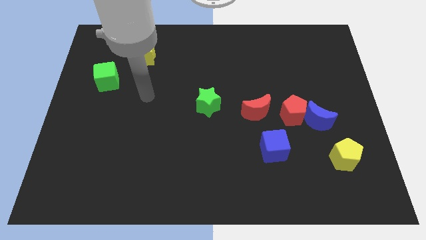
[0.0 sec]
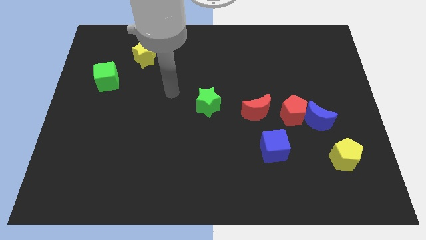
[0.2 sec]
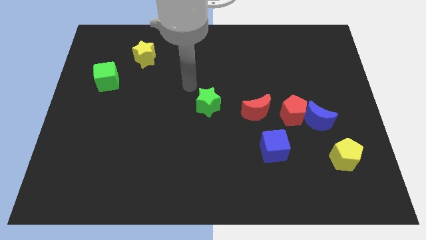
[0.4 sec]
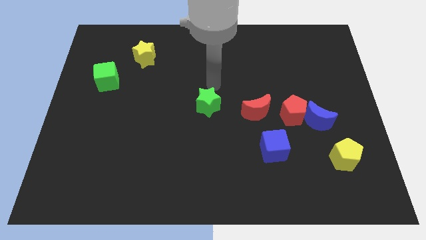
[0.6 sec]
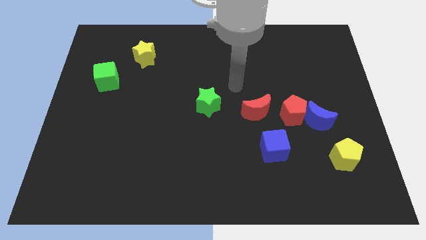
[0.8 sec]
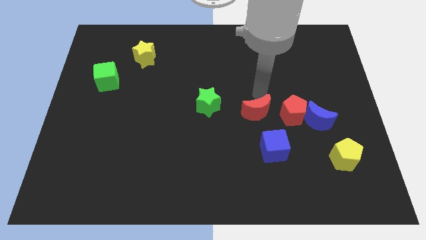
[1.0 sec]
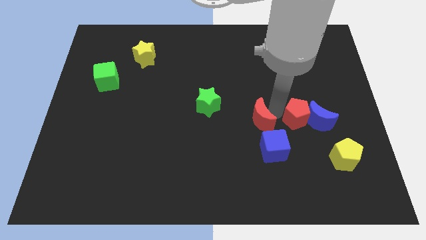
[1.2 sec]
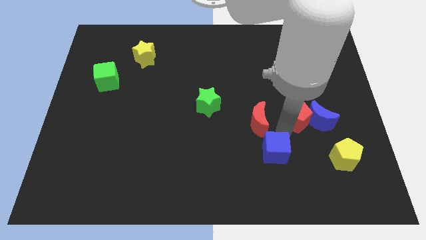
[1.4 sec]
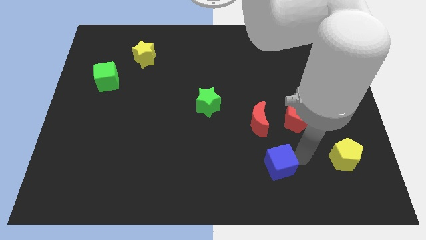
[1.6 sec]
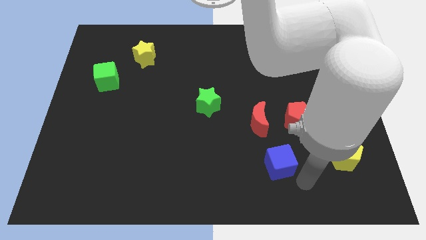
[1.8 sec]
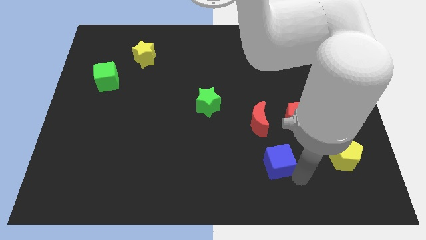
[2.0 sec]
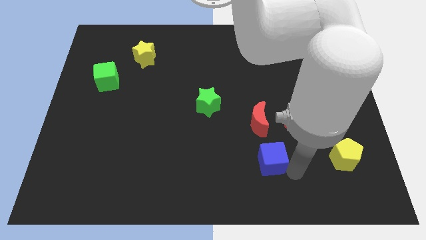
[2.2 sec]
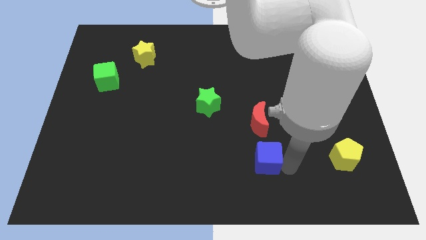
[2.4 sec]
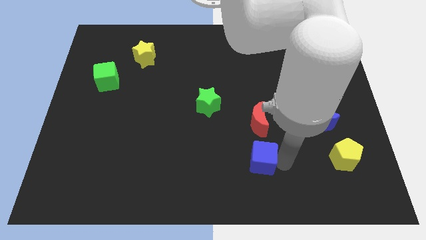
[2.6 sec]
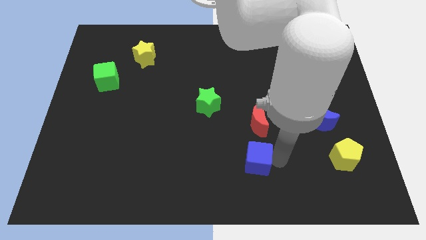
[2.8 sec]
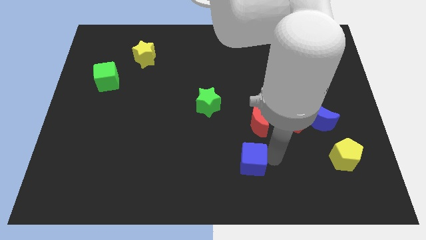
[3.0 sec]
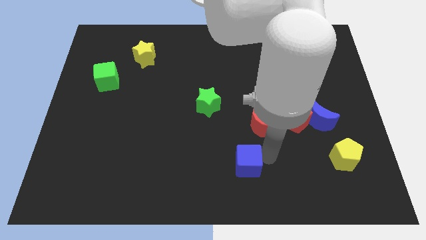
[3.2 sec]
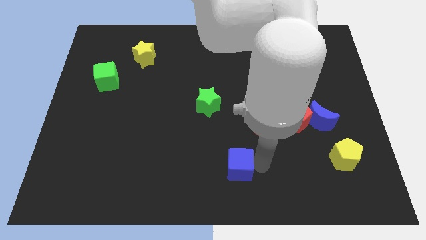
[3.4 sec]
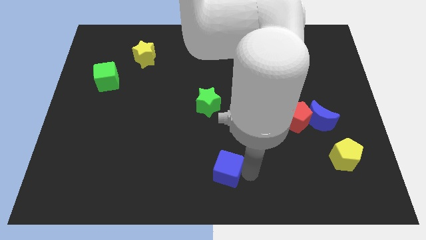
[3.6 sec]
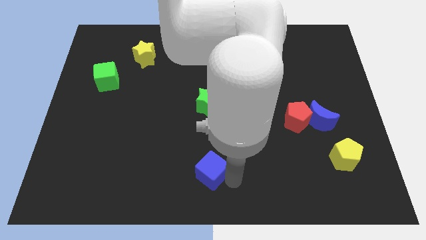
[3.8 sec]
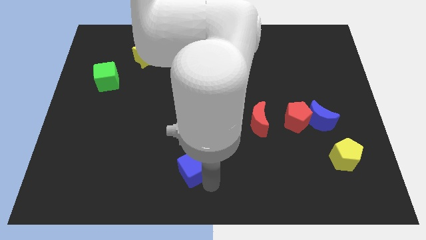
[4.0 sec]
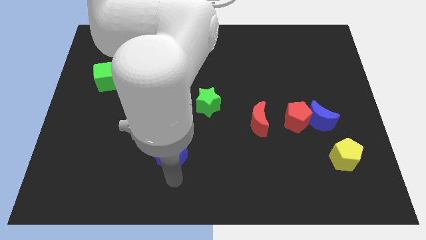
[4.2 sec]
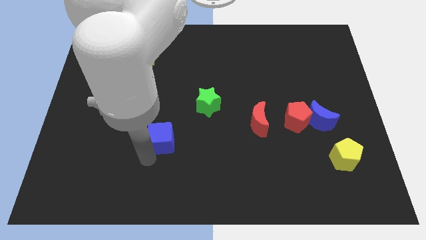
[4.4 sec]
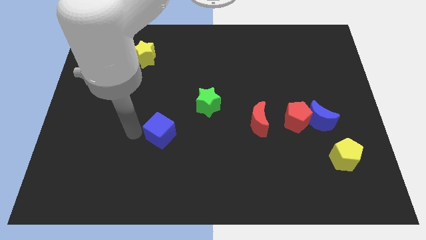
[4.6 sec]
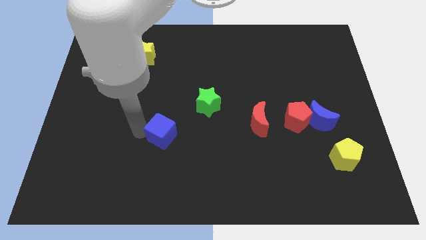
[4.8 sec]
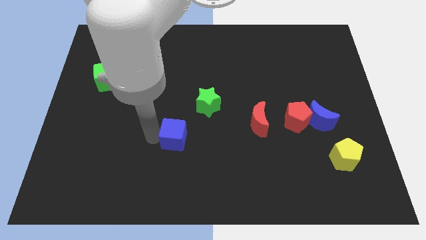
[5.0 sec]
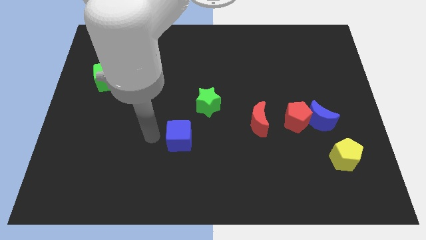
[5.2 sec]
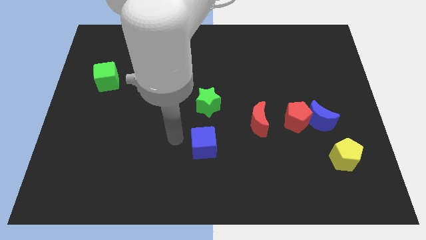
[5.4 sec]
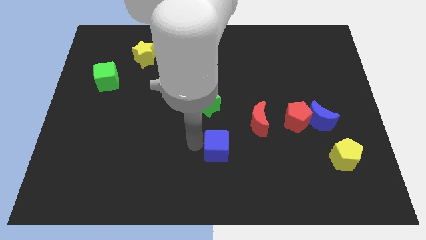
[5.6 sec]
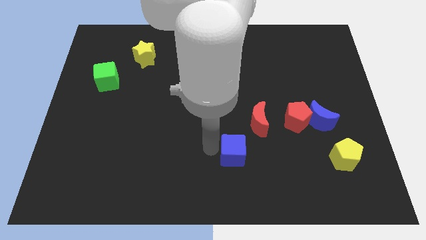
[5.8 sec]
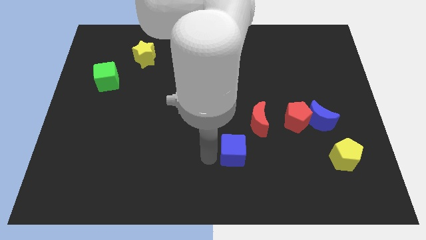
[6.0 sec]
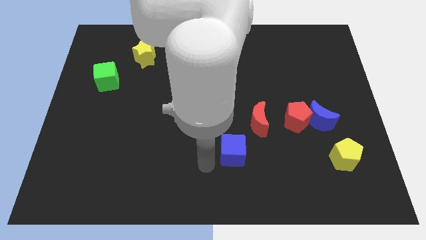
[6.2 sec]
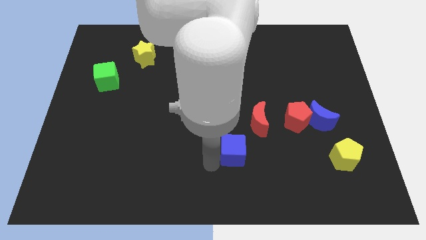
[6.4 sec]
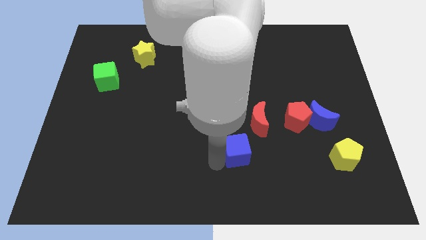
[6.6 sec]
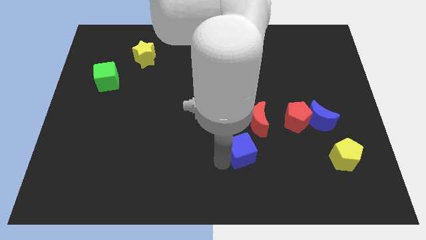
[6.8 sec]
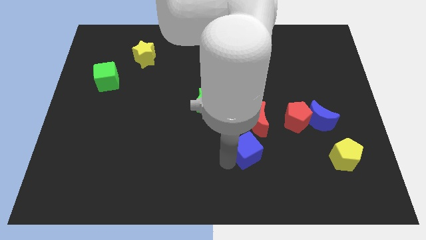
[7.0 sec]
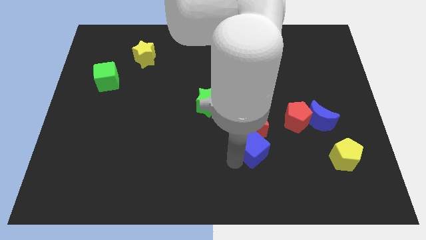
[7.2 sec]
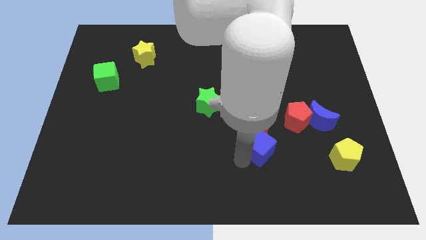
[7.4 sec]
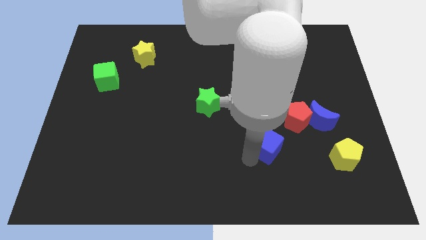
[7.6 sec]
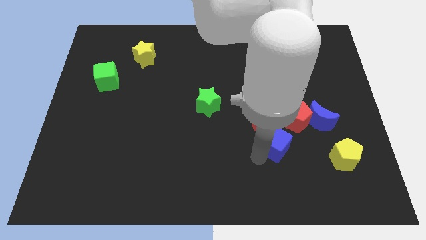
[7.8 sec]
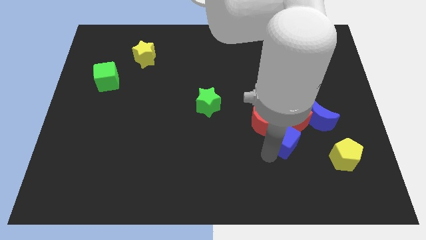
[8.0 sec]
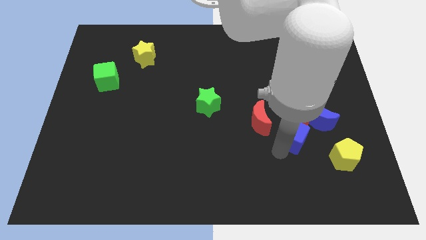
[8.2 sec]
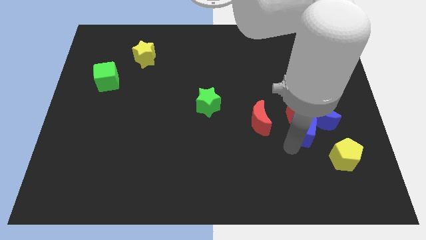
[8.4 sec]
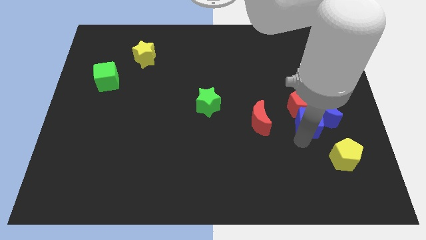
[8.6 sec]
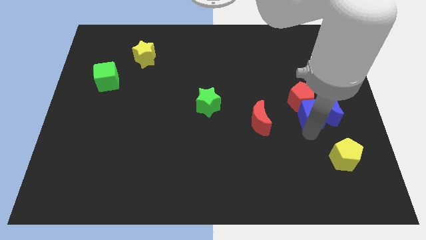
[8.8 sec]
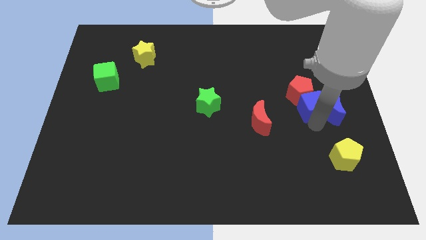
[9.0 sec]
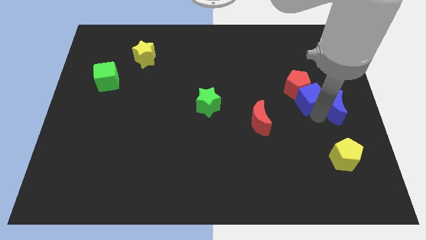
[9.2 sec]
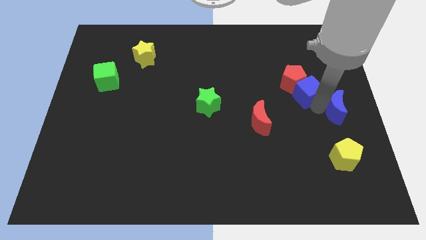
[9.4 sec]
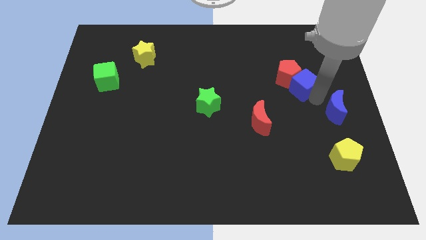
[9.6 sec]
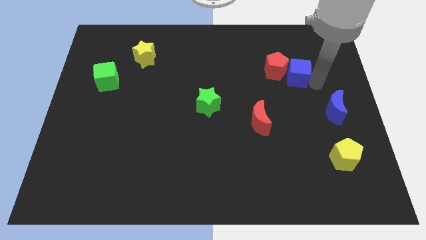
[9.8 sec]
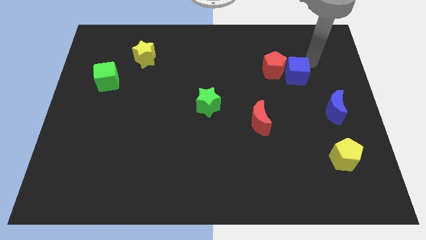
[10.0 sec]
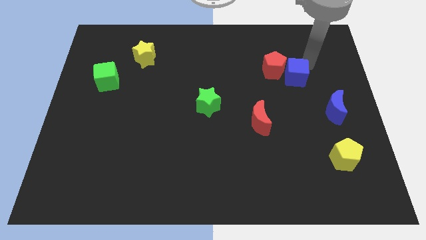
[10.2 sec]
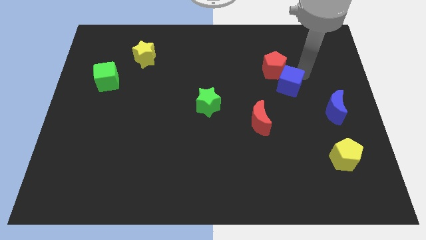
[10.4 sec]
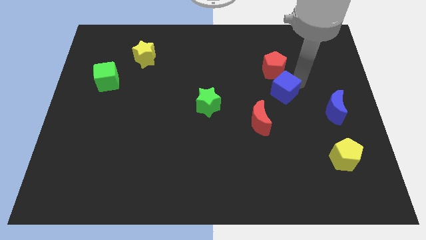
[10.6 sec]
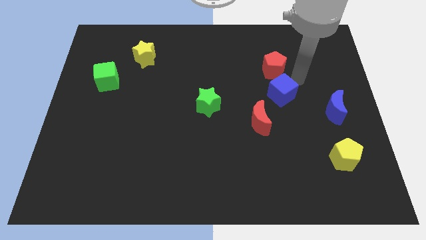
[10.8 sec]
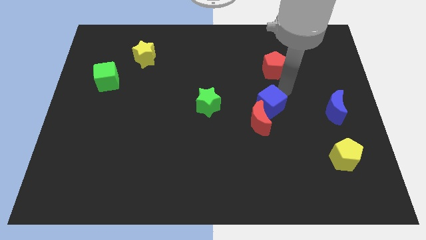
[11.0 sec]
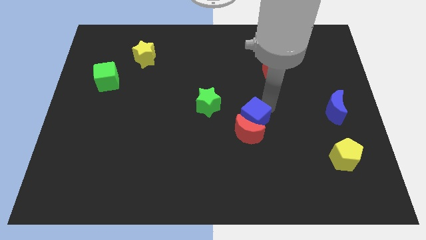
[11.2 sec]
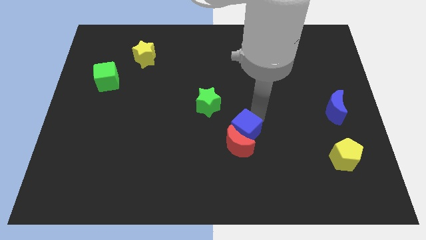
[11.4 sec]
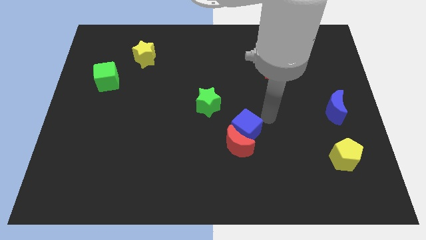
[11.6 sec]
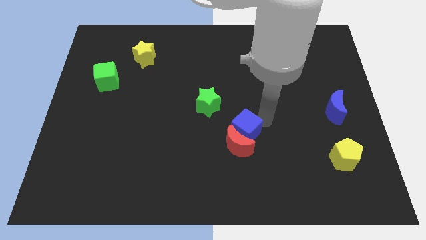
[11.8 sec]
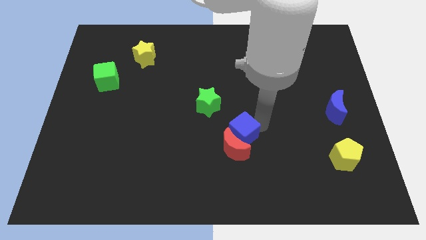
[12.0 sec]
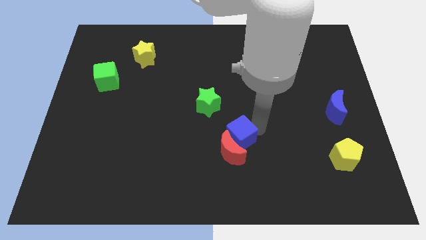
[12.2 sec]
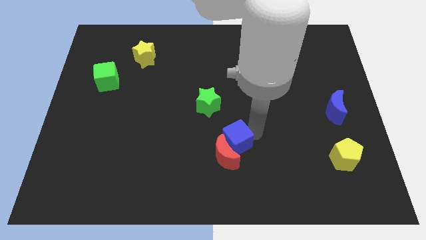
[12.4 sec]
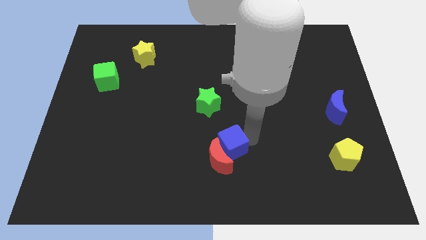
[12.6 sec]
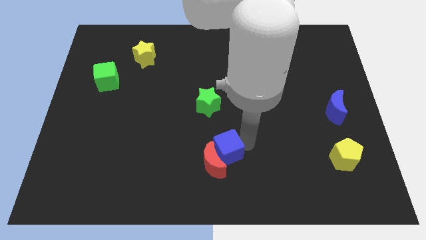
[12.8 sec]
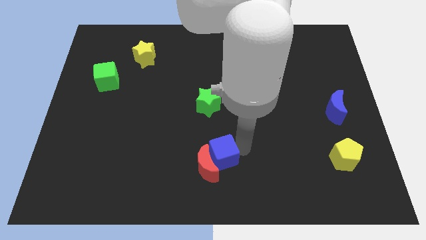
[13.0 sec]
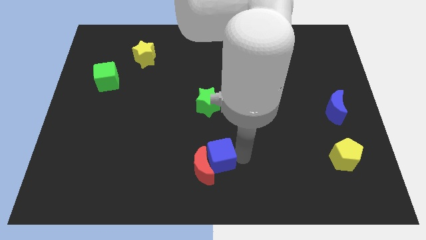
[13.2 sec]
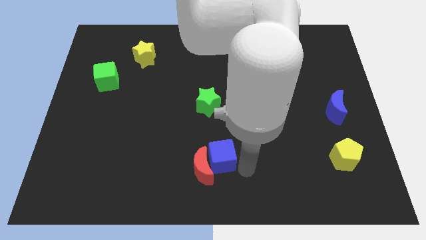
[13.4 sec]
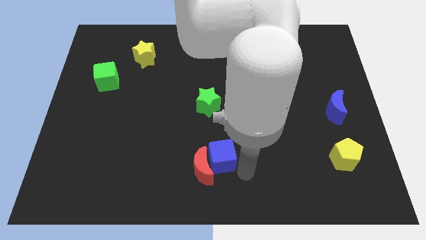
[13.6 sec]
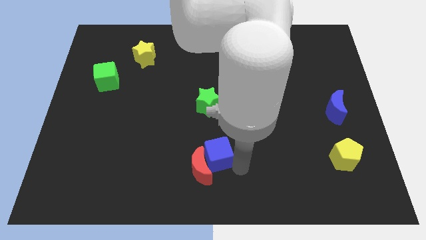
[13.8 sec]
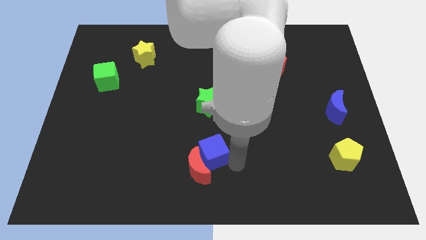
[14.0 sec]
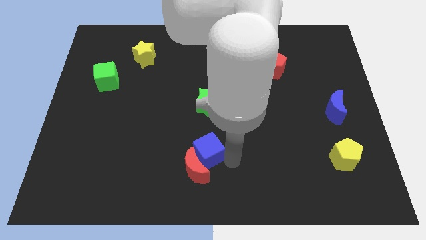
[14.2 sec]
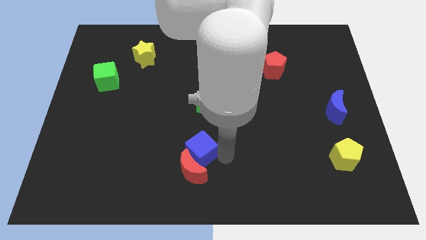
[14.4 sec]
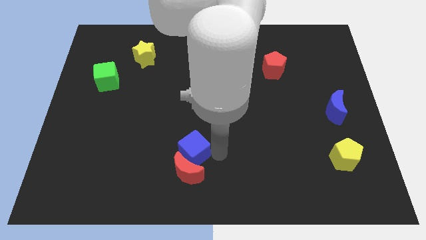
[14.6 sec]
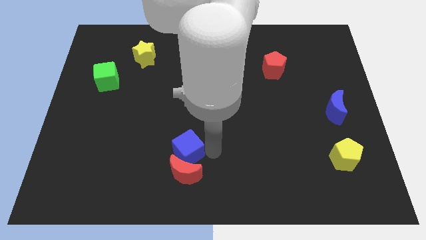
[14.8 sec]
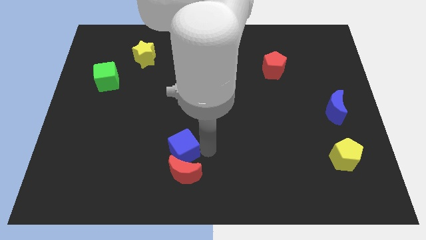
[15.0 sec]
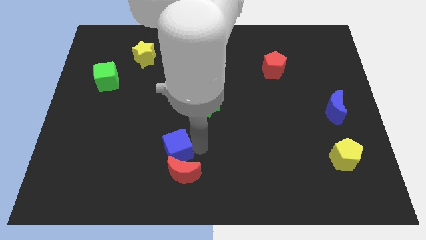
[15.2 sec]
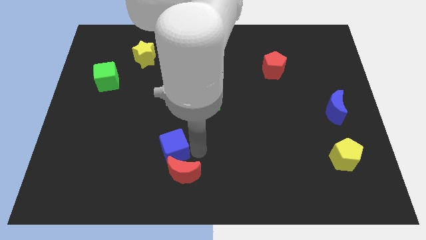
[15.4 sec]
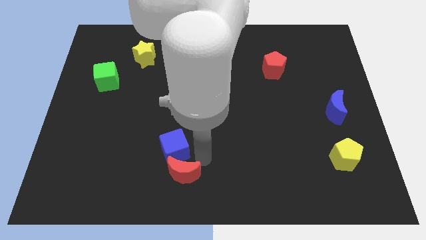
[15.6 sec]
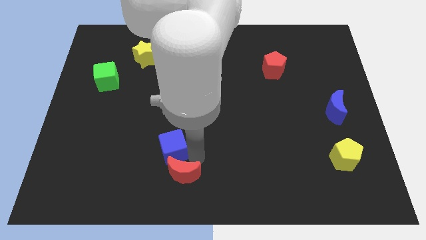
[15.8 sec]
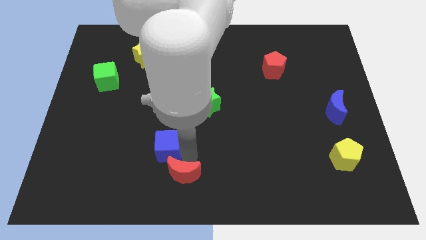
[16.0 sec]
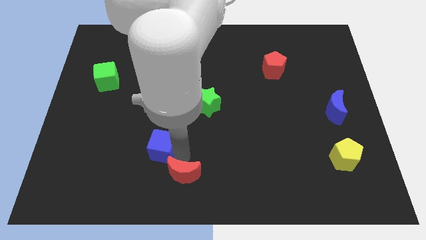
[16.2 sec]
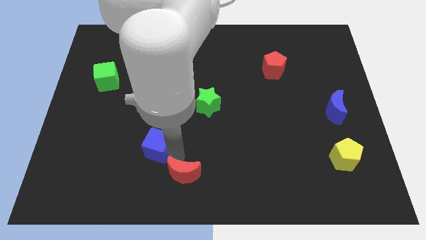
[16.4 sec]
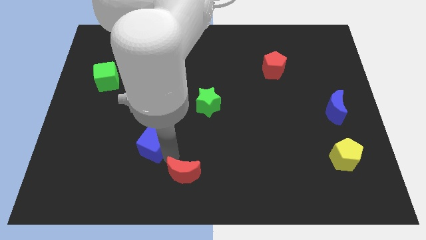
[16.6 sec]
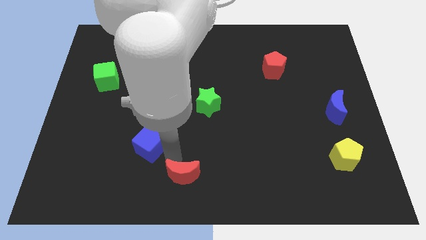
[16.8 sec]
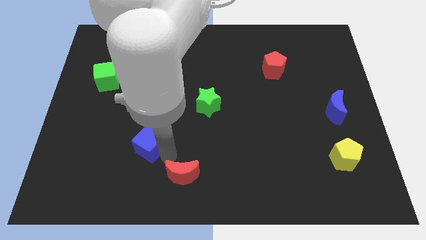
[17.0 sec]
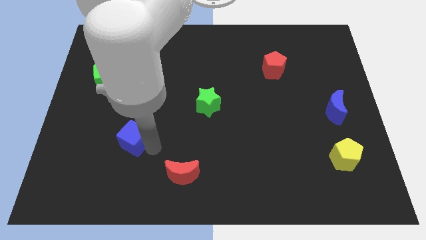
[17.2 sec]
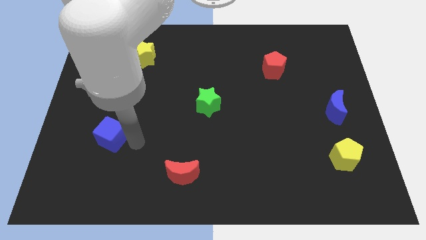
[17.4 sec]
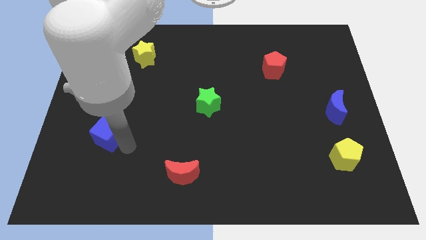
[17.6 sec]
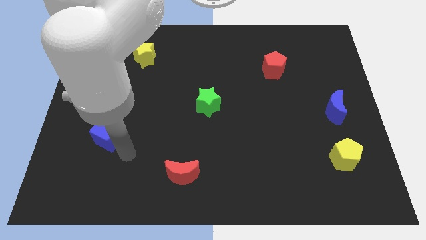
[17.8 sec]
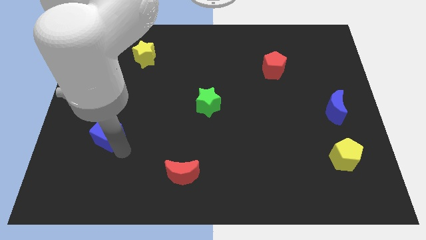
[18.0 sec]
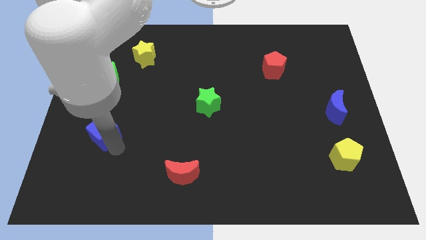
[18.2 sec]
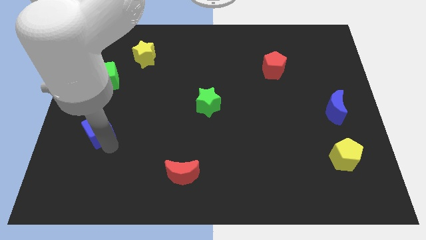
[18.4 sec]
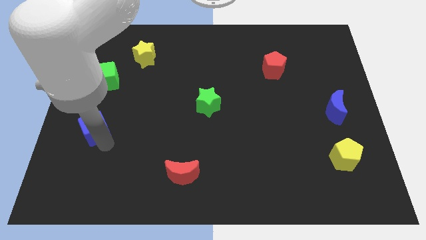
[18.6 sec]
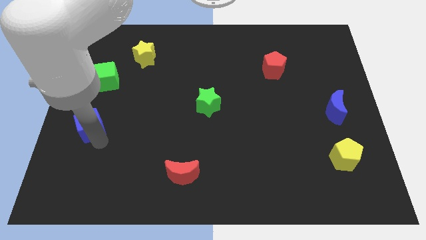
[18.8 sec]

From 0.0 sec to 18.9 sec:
move the blue cube to the center left
